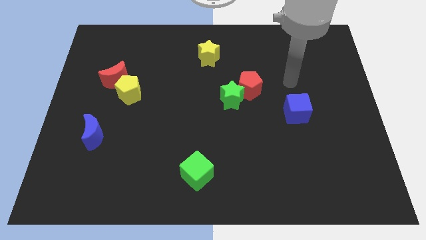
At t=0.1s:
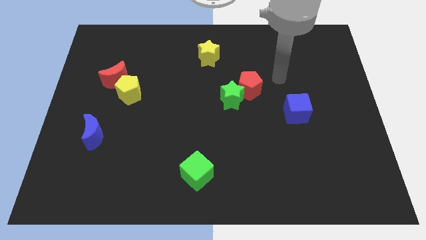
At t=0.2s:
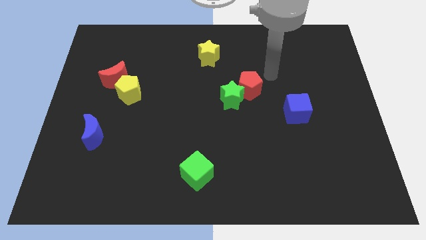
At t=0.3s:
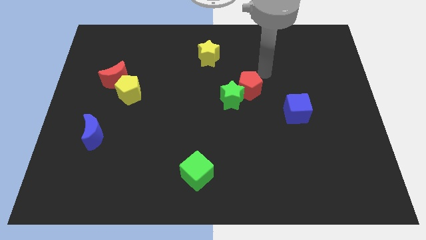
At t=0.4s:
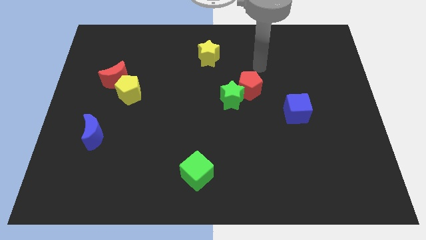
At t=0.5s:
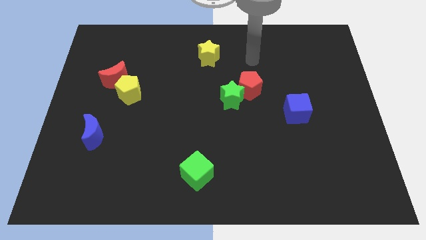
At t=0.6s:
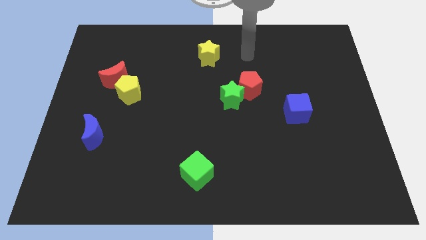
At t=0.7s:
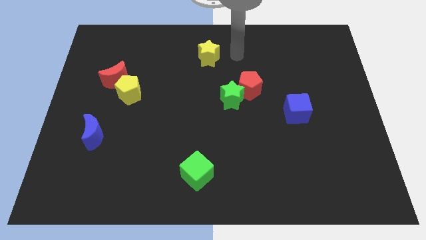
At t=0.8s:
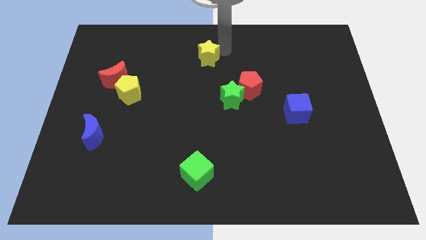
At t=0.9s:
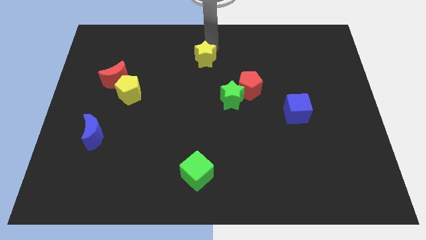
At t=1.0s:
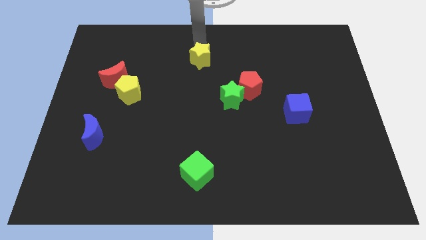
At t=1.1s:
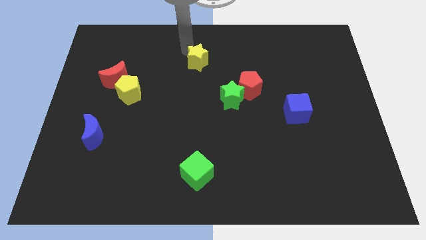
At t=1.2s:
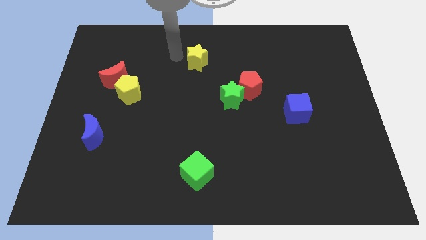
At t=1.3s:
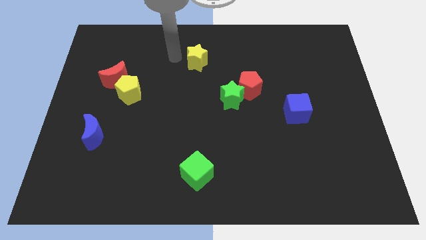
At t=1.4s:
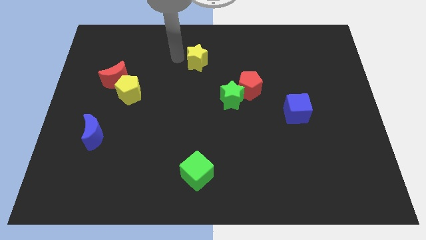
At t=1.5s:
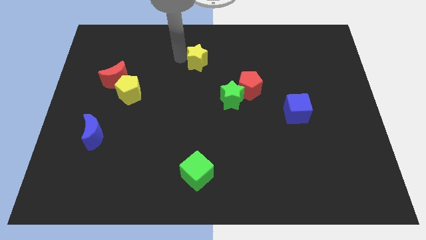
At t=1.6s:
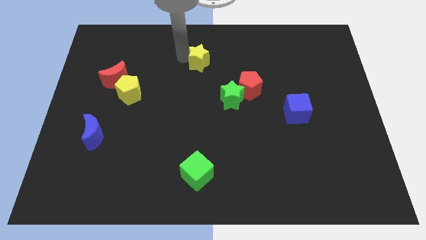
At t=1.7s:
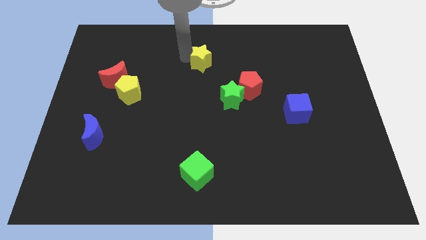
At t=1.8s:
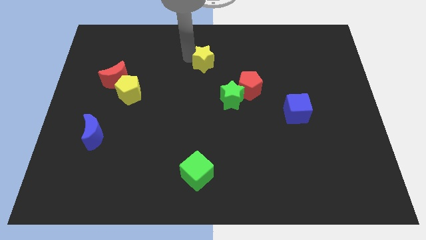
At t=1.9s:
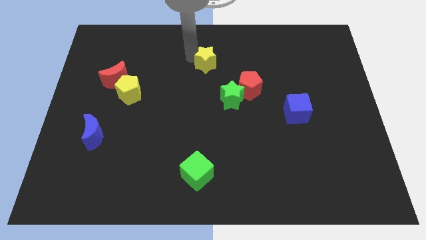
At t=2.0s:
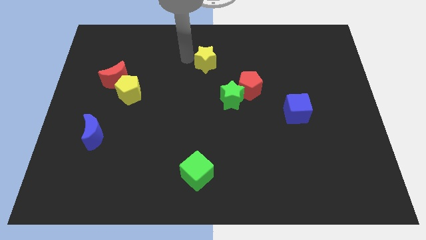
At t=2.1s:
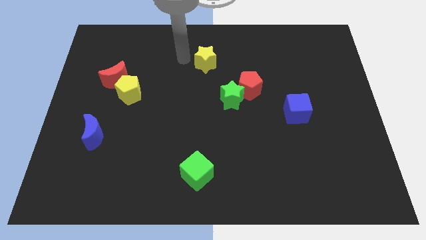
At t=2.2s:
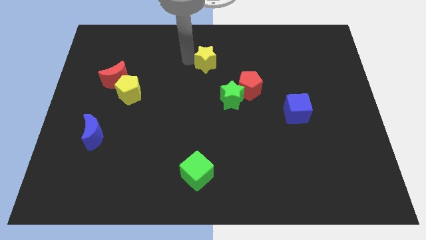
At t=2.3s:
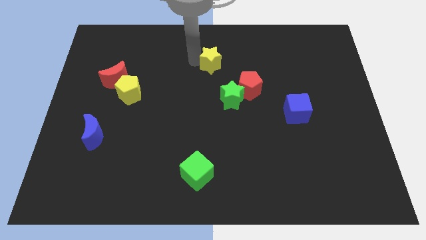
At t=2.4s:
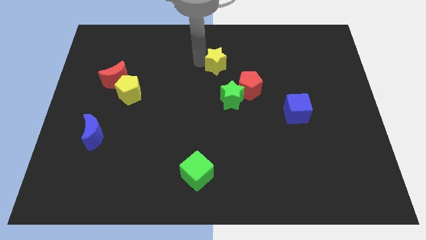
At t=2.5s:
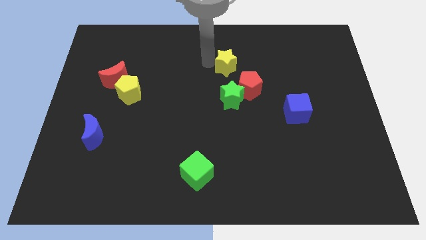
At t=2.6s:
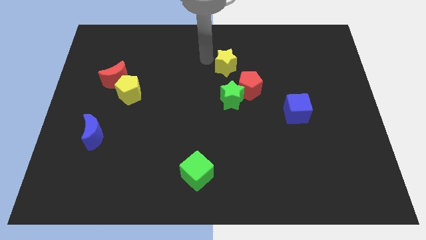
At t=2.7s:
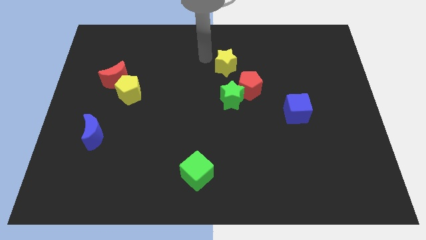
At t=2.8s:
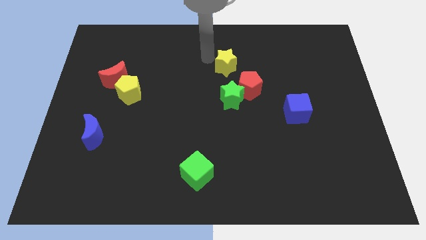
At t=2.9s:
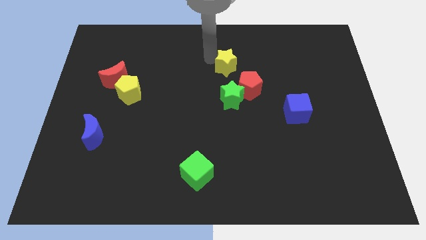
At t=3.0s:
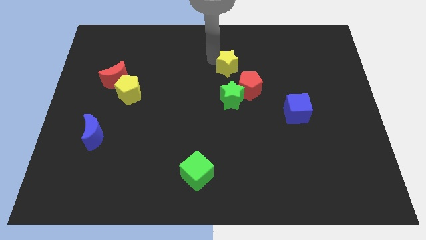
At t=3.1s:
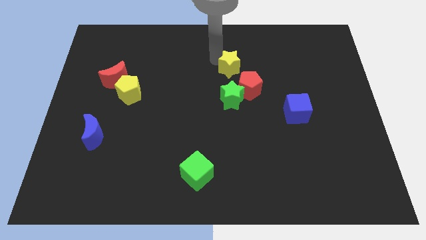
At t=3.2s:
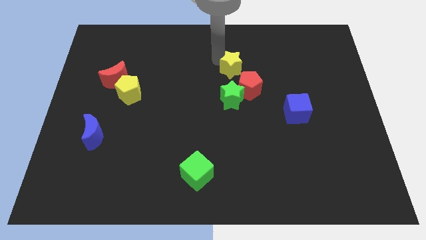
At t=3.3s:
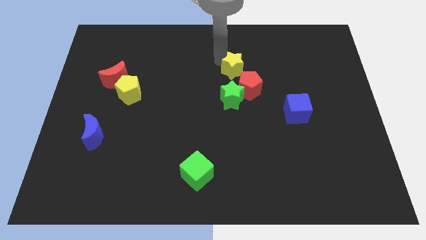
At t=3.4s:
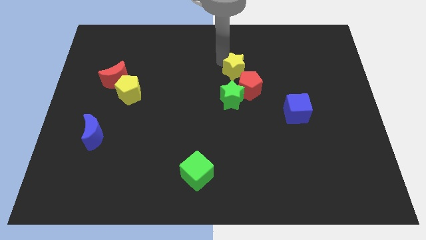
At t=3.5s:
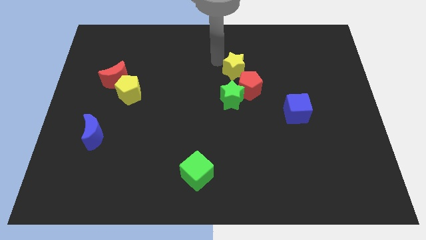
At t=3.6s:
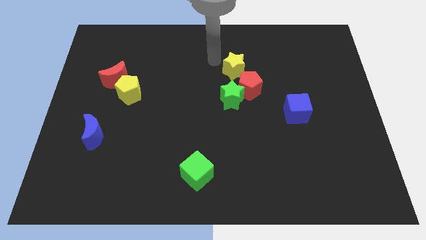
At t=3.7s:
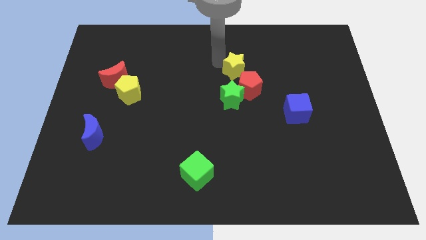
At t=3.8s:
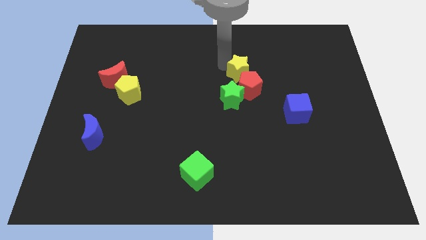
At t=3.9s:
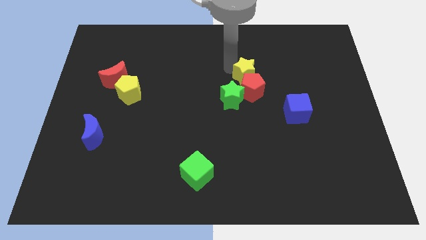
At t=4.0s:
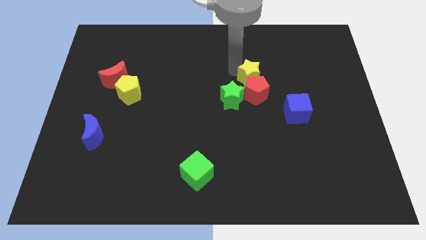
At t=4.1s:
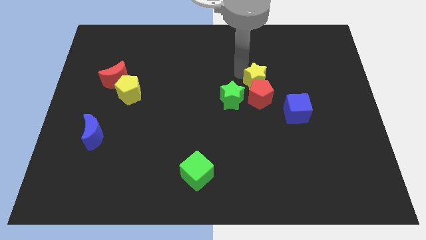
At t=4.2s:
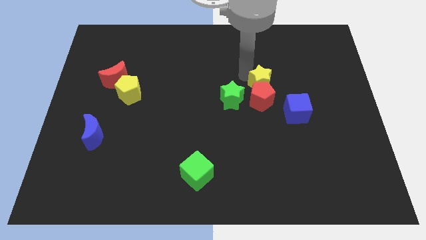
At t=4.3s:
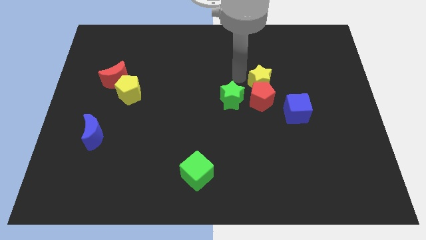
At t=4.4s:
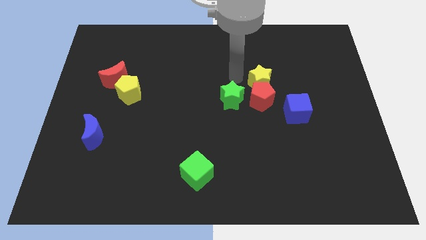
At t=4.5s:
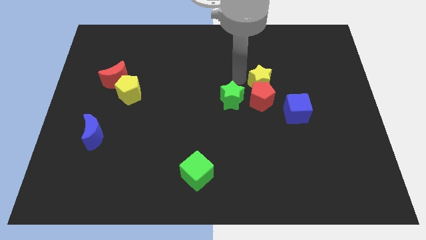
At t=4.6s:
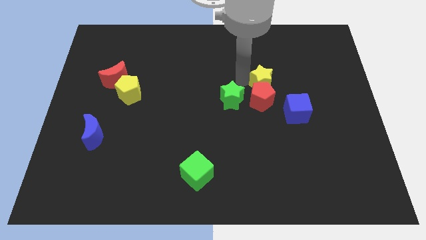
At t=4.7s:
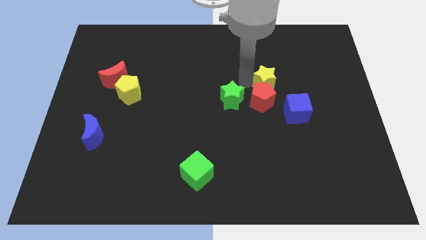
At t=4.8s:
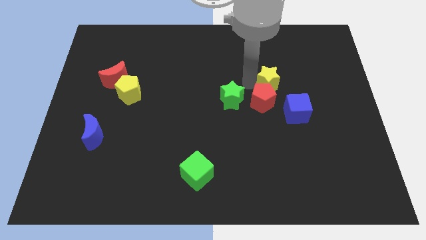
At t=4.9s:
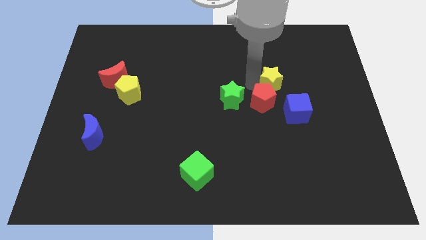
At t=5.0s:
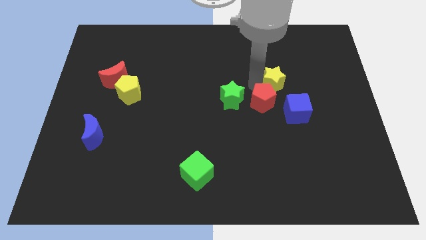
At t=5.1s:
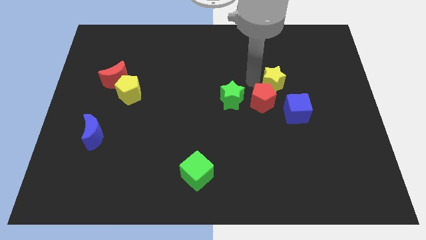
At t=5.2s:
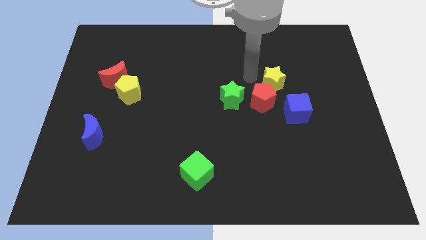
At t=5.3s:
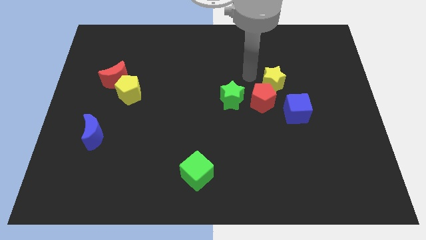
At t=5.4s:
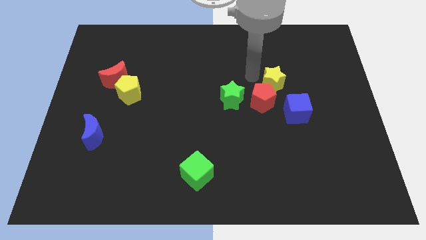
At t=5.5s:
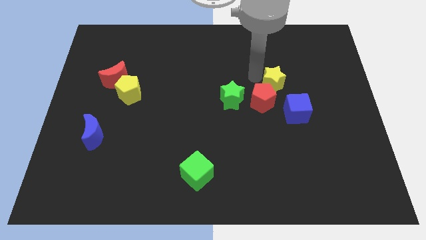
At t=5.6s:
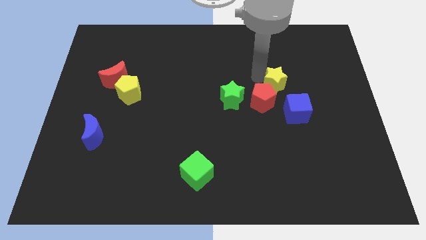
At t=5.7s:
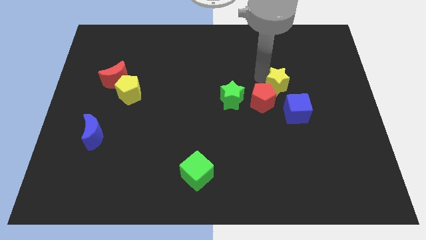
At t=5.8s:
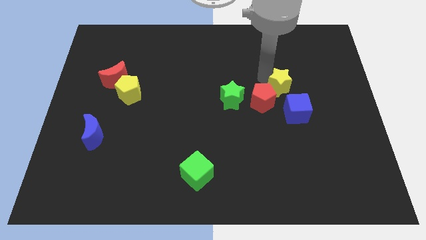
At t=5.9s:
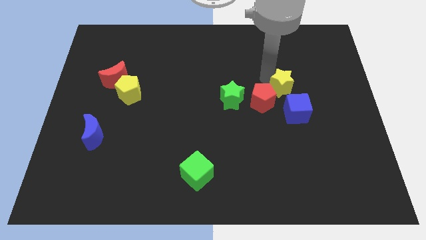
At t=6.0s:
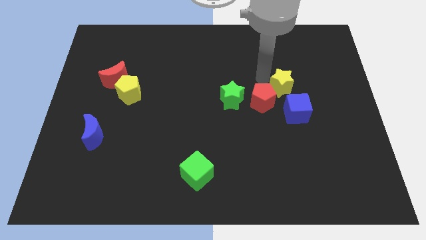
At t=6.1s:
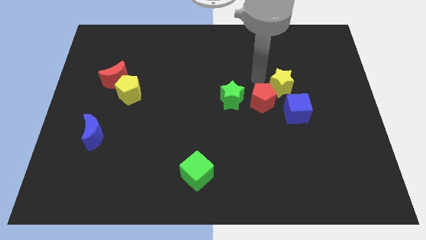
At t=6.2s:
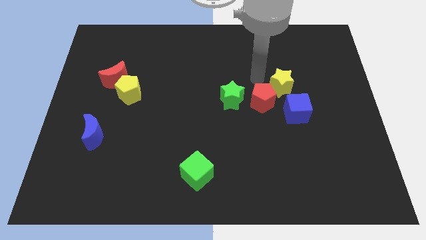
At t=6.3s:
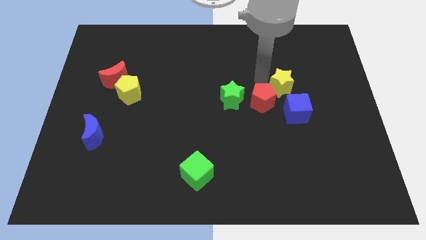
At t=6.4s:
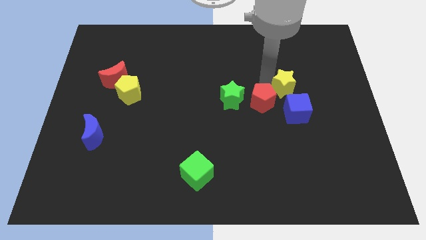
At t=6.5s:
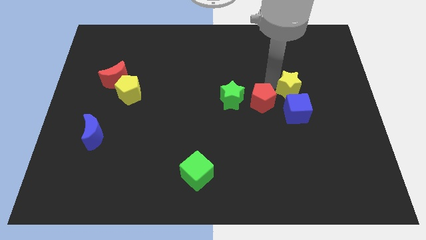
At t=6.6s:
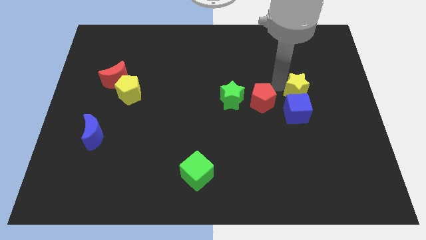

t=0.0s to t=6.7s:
put the yellow star to the top right of the blue cube
